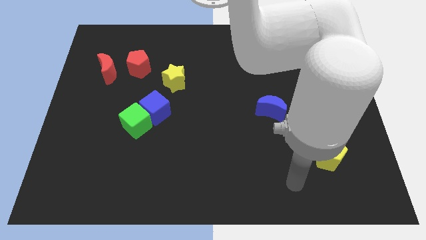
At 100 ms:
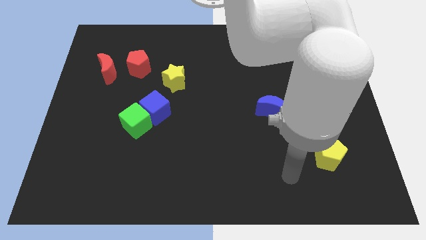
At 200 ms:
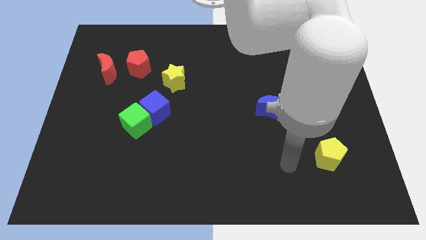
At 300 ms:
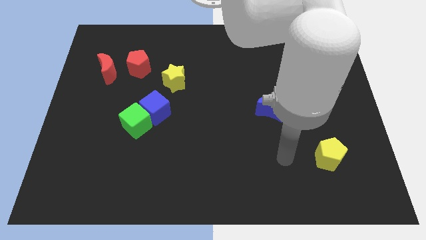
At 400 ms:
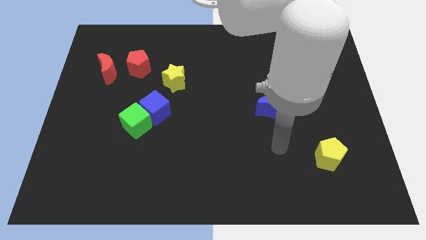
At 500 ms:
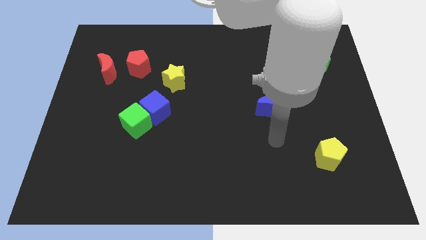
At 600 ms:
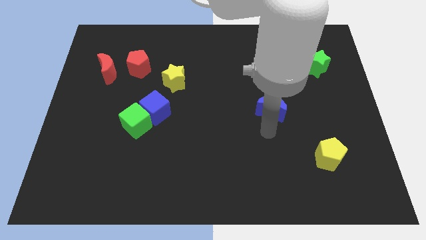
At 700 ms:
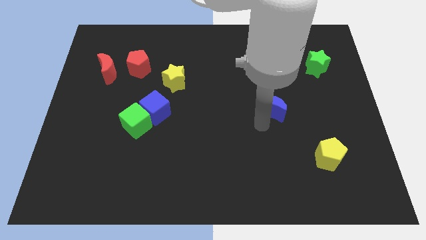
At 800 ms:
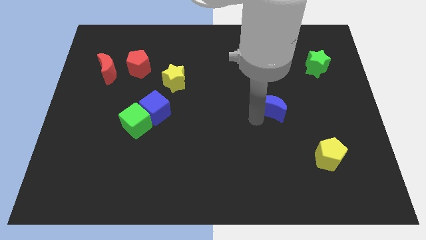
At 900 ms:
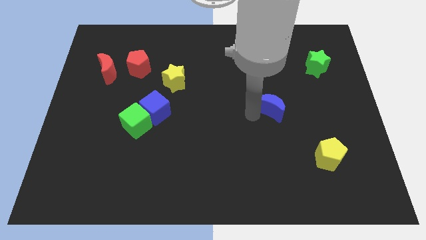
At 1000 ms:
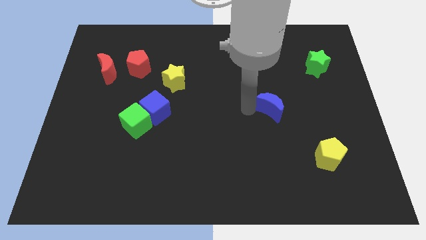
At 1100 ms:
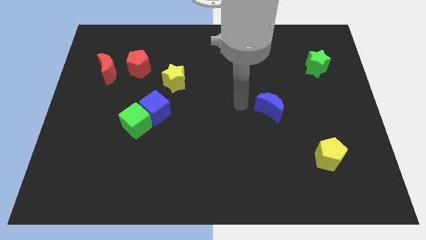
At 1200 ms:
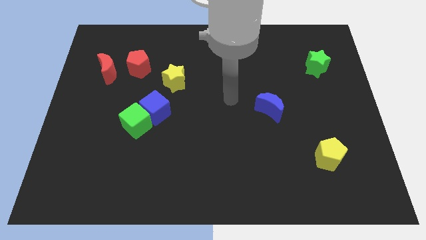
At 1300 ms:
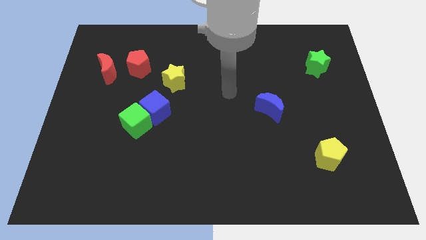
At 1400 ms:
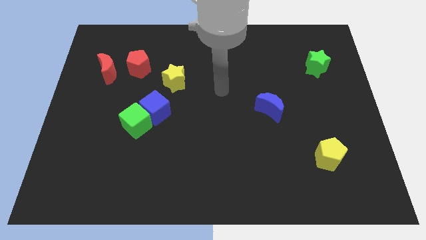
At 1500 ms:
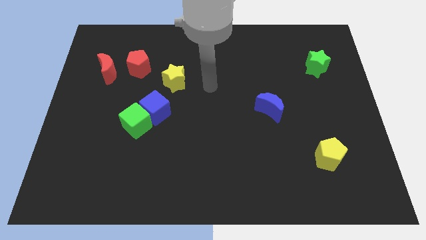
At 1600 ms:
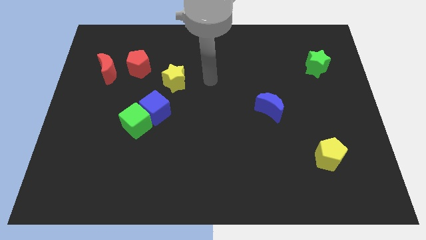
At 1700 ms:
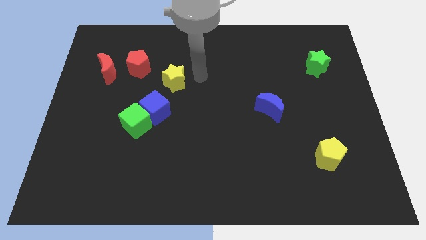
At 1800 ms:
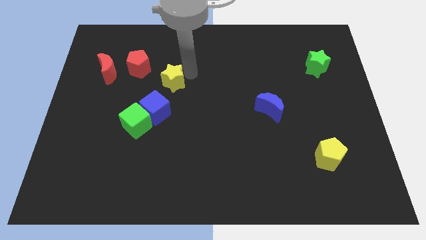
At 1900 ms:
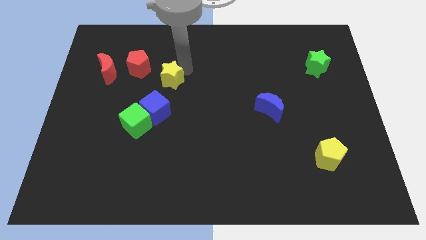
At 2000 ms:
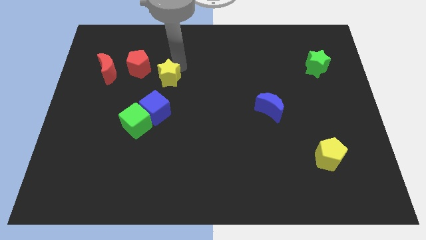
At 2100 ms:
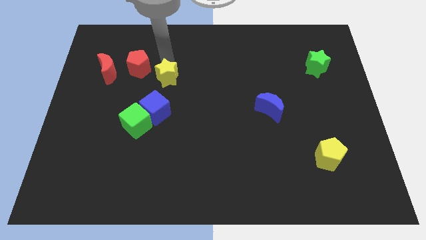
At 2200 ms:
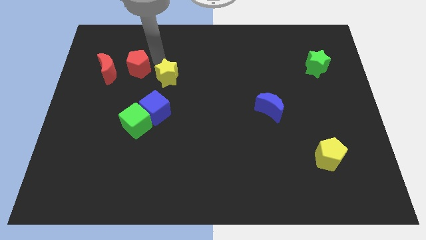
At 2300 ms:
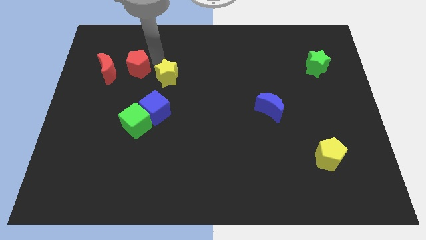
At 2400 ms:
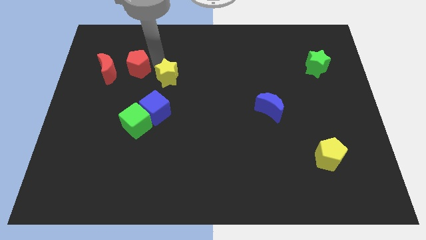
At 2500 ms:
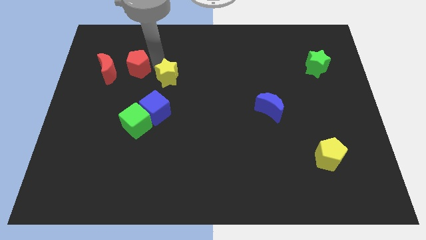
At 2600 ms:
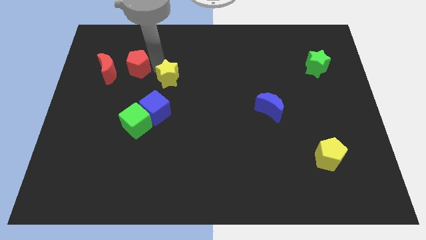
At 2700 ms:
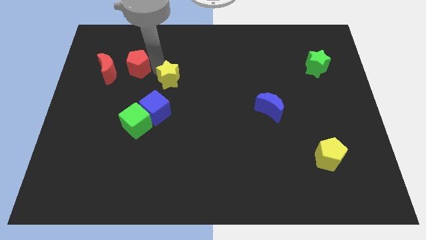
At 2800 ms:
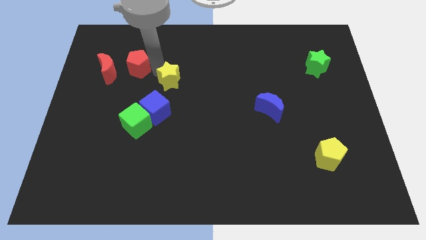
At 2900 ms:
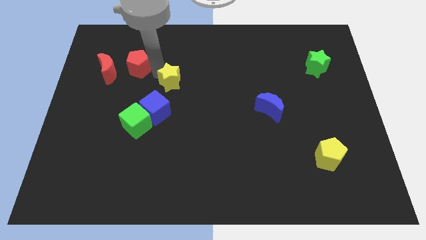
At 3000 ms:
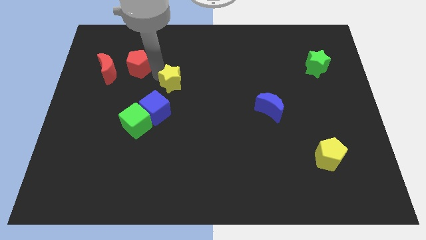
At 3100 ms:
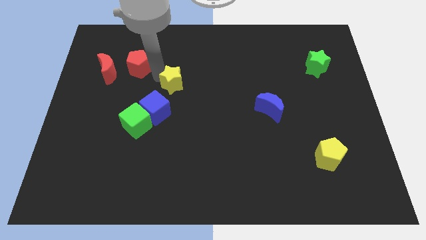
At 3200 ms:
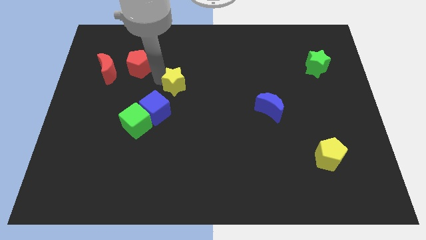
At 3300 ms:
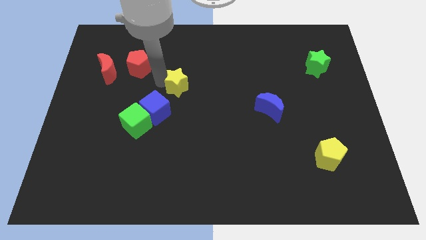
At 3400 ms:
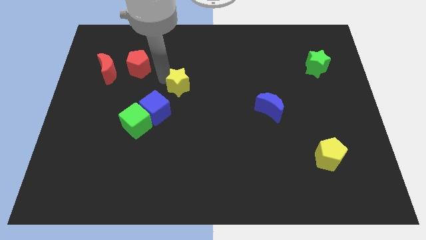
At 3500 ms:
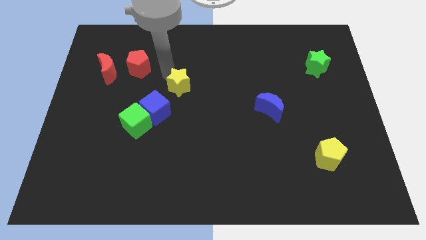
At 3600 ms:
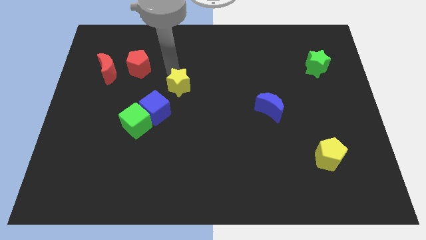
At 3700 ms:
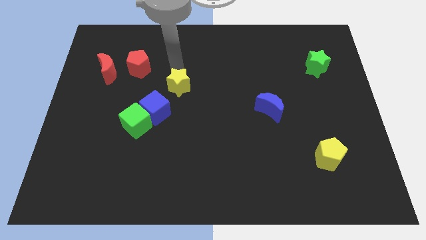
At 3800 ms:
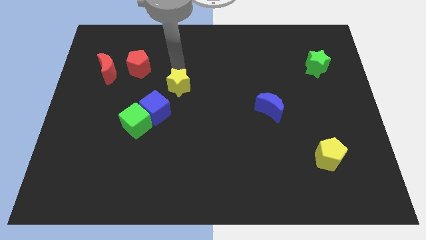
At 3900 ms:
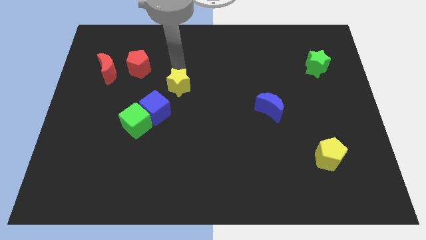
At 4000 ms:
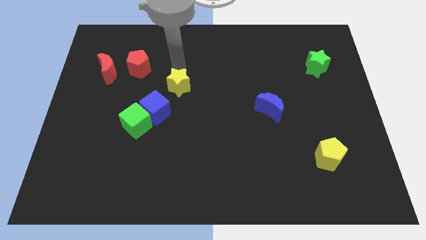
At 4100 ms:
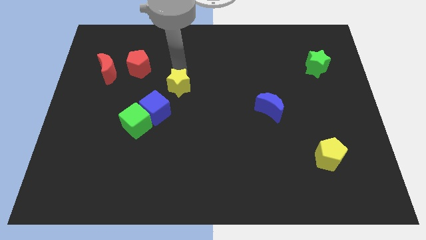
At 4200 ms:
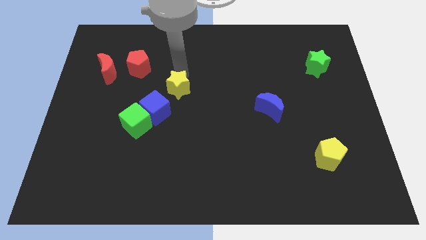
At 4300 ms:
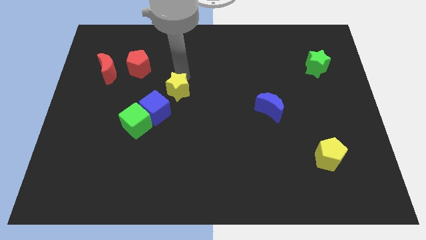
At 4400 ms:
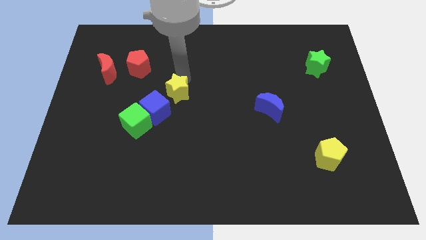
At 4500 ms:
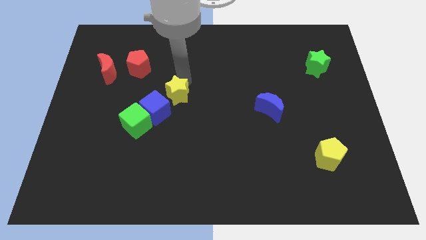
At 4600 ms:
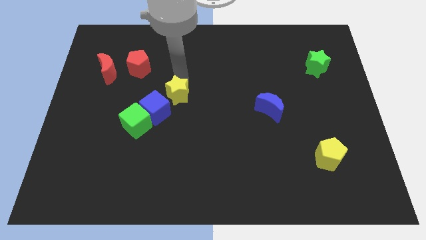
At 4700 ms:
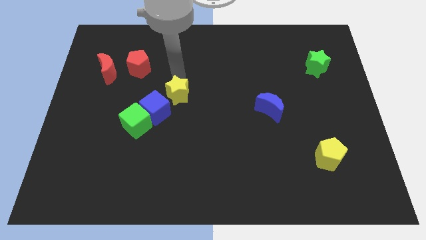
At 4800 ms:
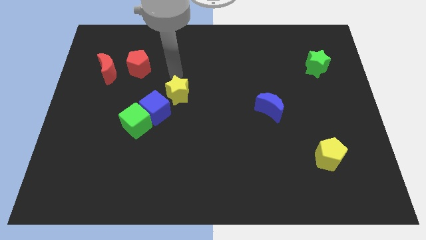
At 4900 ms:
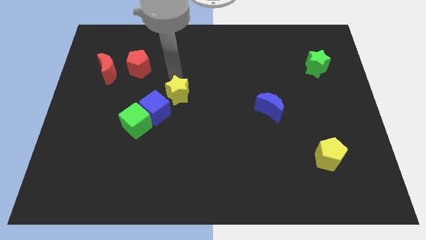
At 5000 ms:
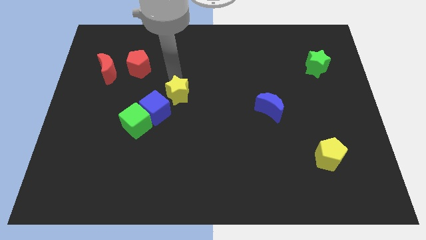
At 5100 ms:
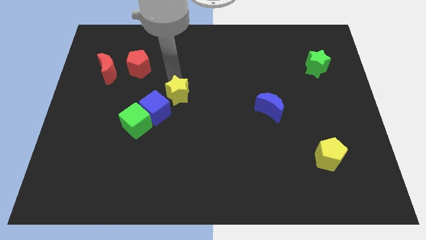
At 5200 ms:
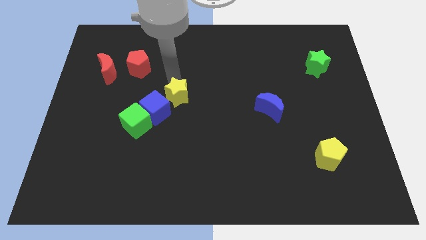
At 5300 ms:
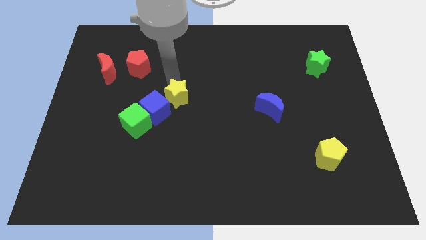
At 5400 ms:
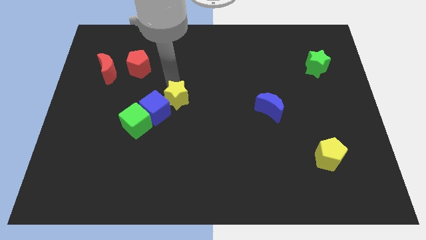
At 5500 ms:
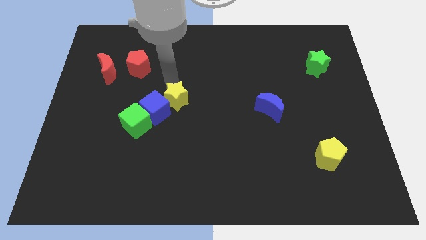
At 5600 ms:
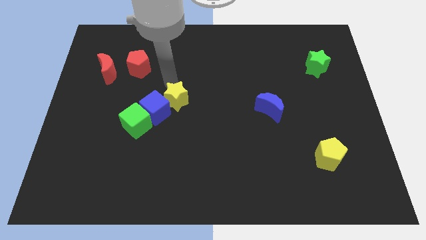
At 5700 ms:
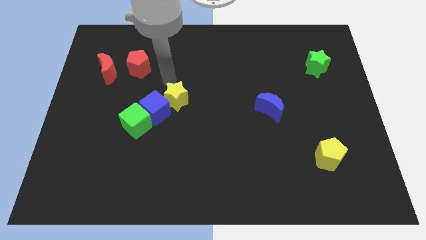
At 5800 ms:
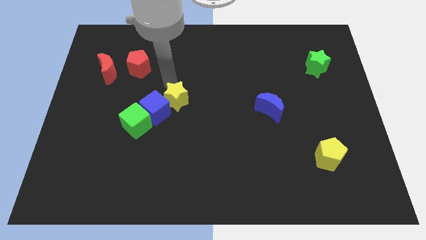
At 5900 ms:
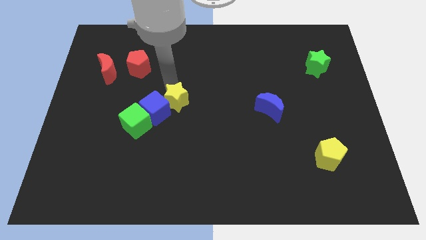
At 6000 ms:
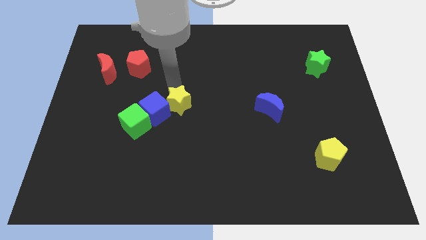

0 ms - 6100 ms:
push the yellow star a bit downwards

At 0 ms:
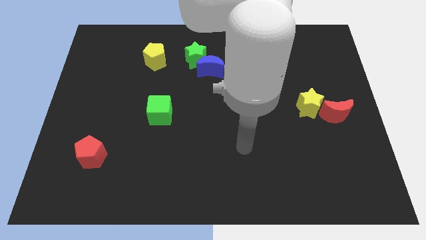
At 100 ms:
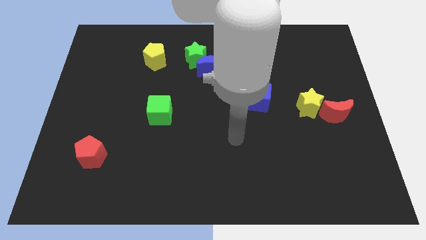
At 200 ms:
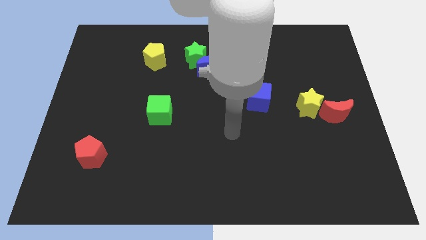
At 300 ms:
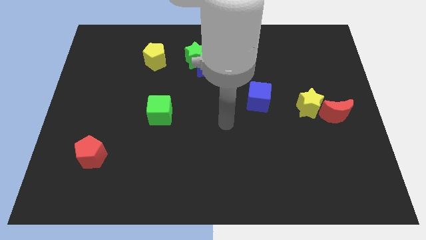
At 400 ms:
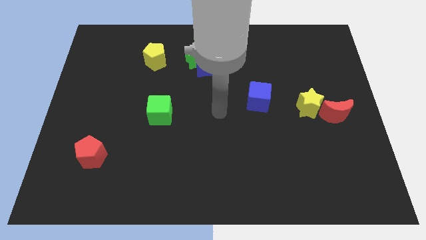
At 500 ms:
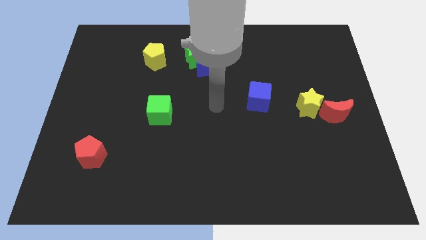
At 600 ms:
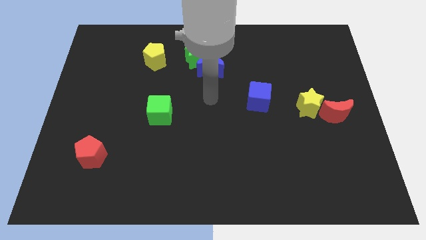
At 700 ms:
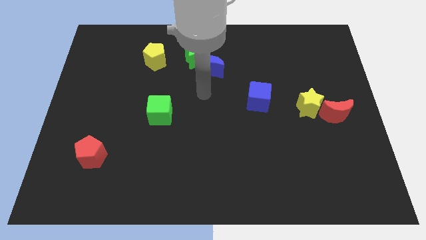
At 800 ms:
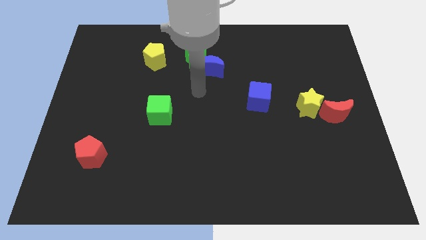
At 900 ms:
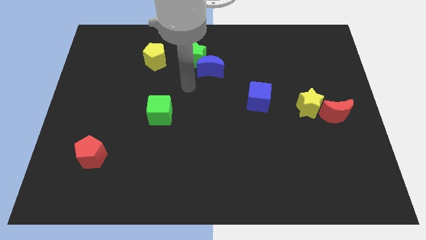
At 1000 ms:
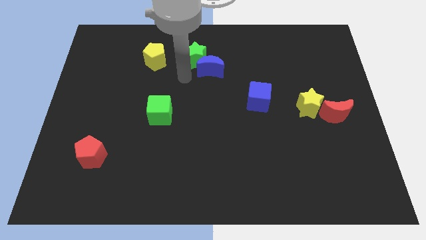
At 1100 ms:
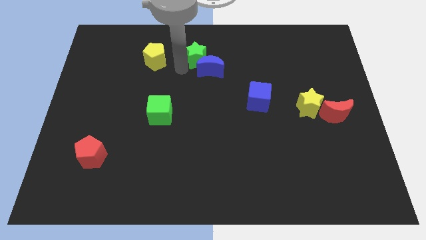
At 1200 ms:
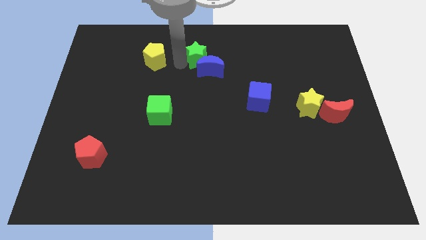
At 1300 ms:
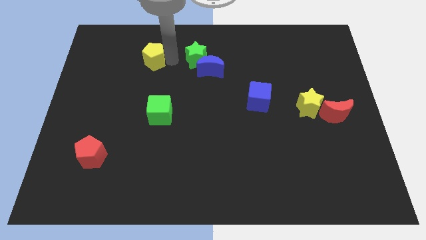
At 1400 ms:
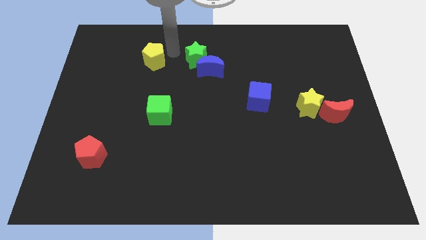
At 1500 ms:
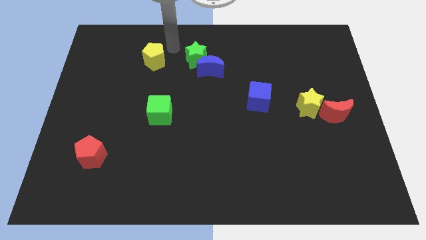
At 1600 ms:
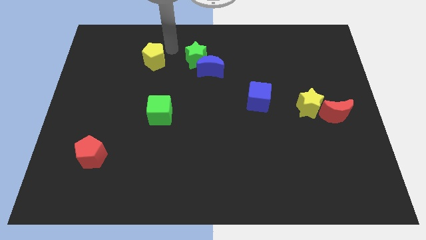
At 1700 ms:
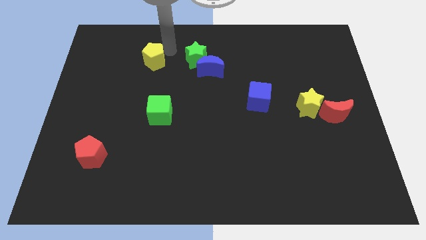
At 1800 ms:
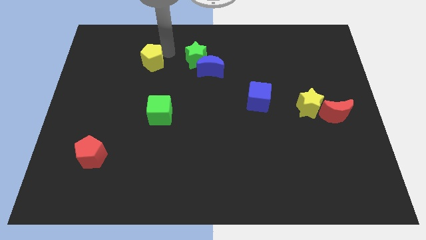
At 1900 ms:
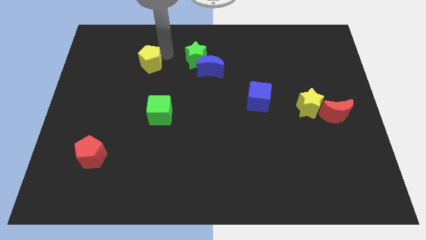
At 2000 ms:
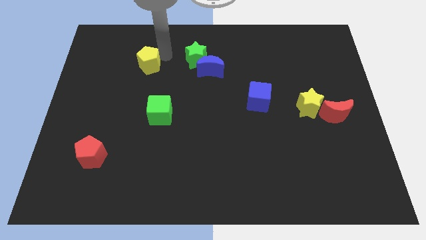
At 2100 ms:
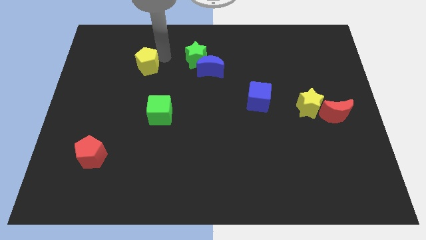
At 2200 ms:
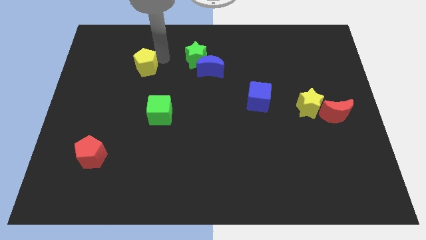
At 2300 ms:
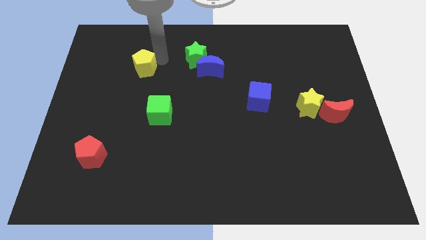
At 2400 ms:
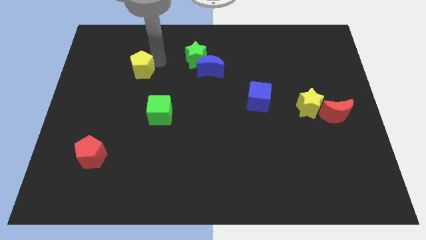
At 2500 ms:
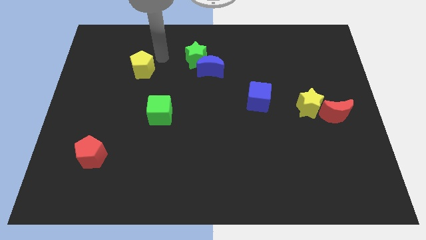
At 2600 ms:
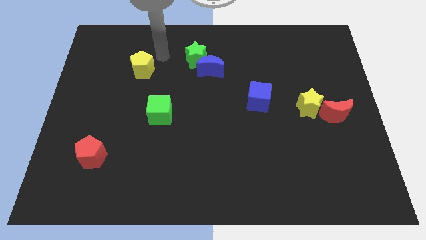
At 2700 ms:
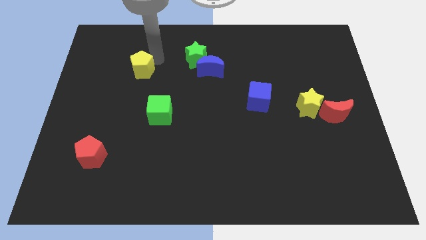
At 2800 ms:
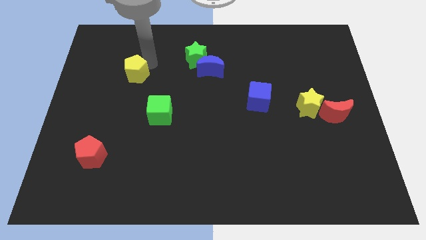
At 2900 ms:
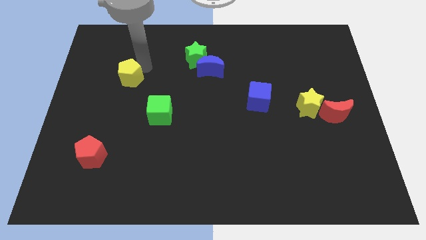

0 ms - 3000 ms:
push the yellow pentagon a bit diagonally down and left
